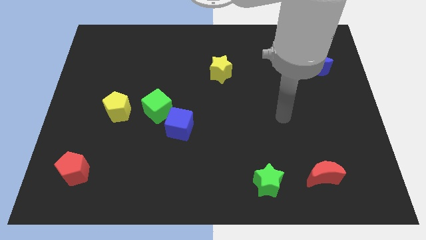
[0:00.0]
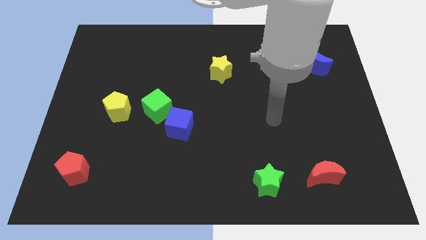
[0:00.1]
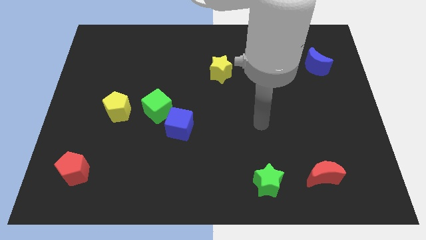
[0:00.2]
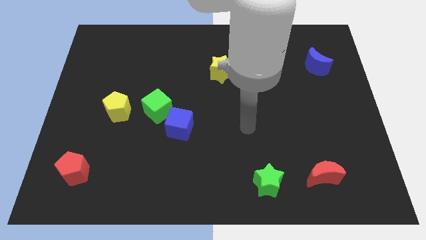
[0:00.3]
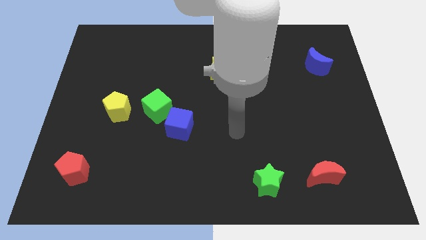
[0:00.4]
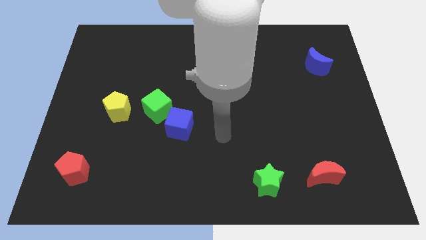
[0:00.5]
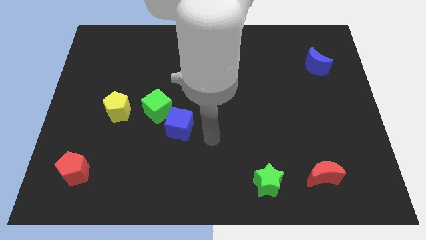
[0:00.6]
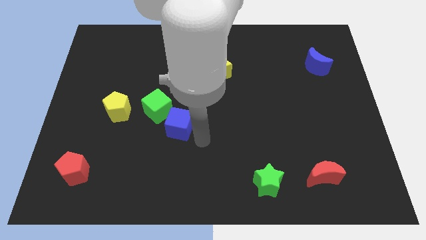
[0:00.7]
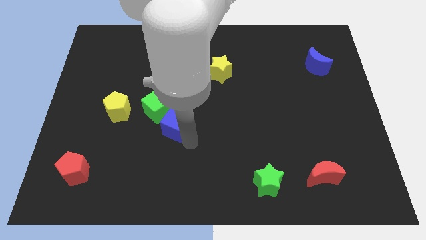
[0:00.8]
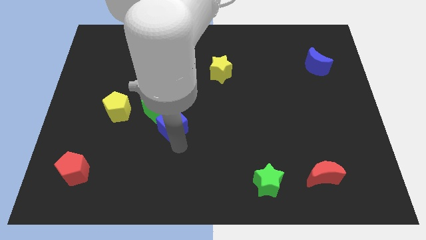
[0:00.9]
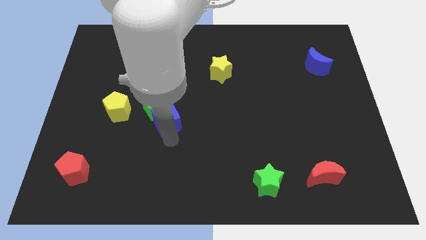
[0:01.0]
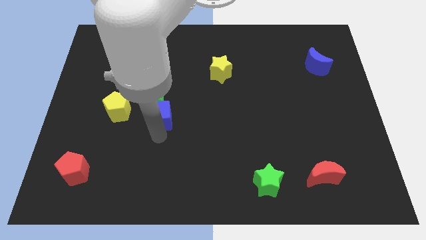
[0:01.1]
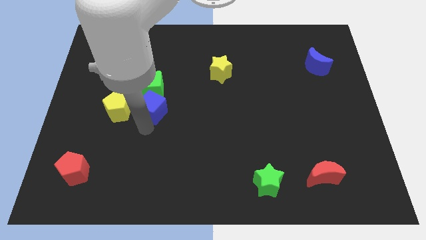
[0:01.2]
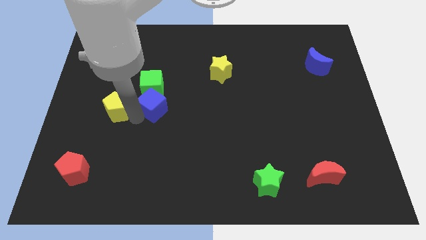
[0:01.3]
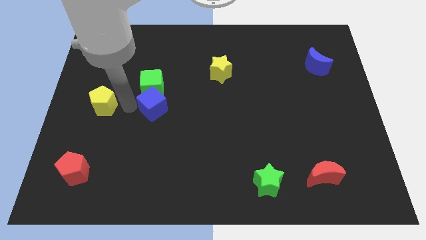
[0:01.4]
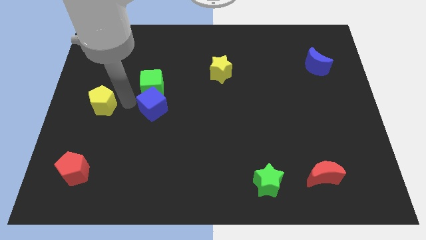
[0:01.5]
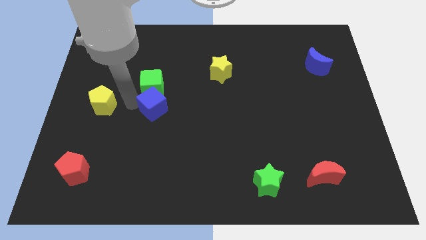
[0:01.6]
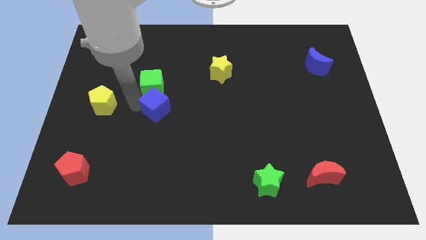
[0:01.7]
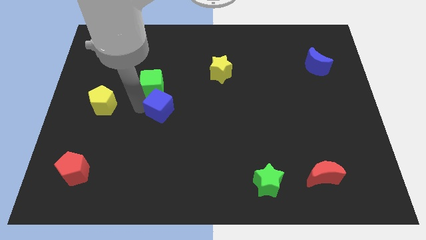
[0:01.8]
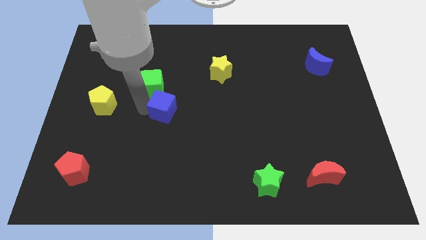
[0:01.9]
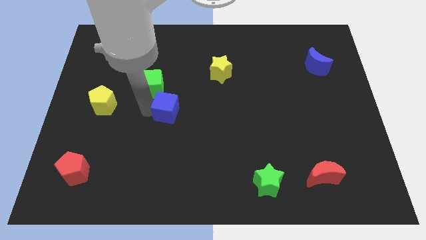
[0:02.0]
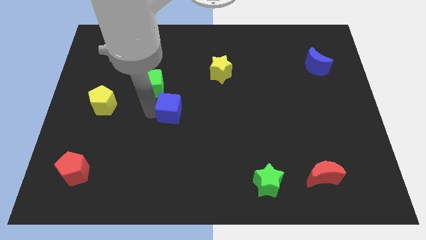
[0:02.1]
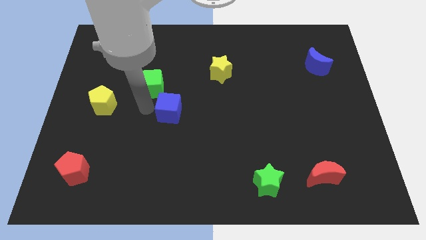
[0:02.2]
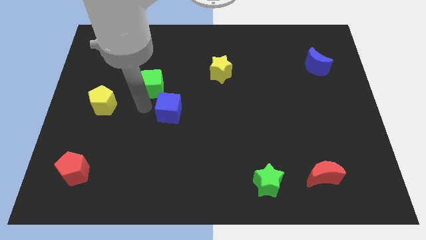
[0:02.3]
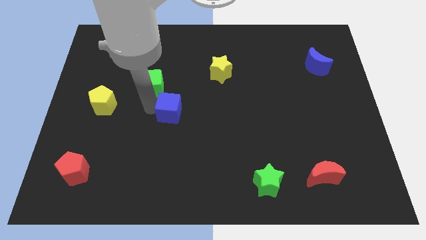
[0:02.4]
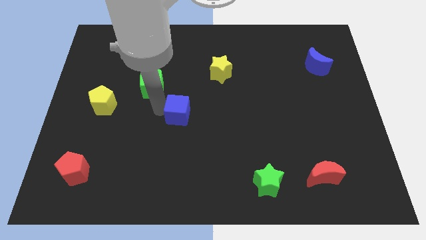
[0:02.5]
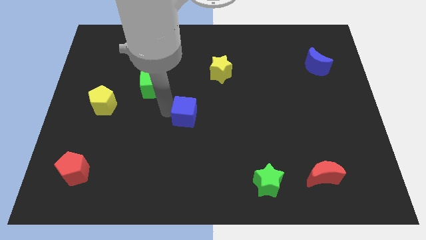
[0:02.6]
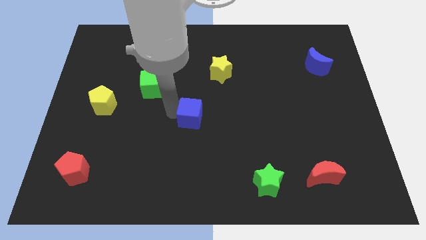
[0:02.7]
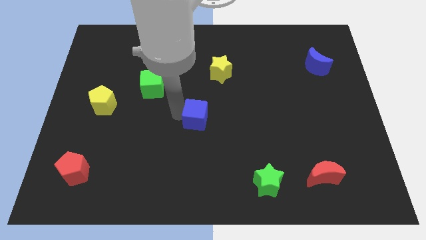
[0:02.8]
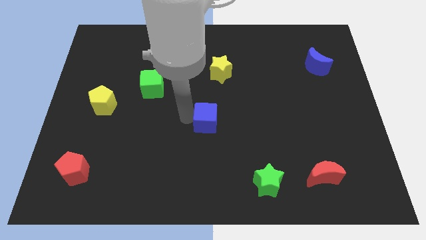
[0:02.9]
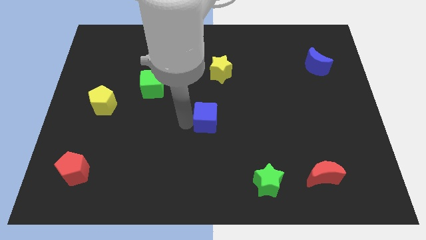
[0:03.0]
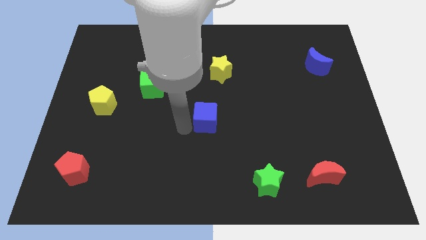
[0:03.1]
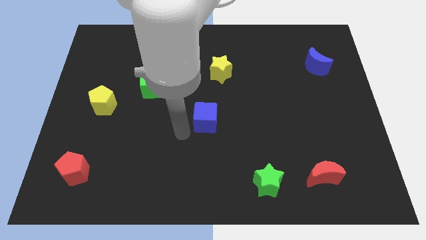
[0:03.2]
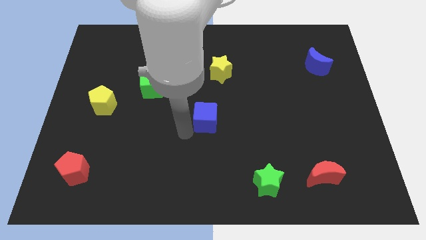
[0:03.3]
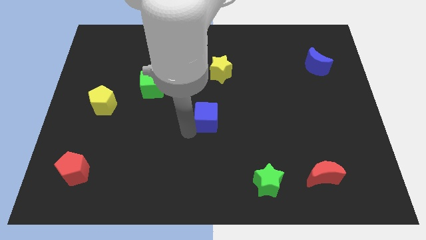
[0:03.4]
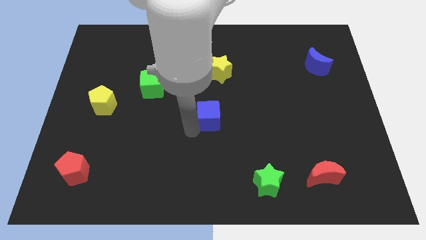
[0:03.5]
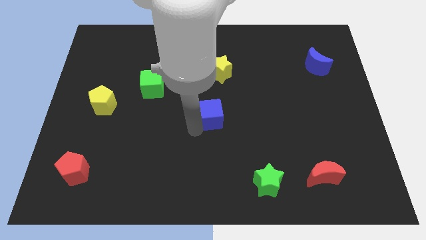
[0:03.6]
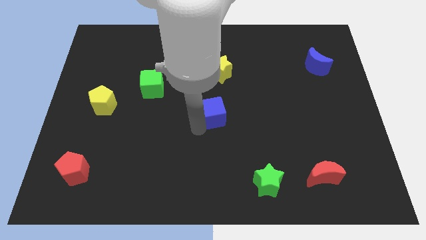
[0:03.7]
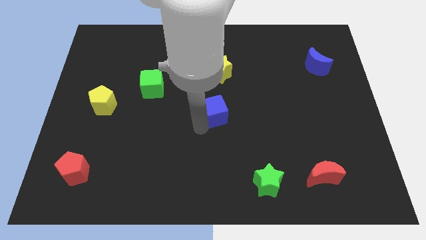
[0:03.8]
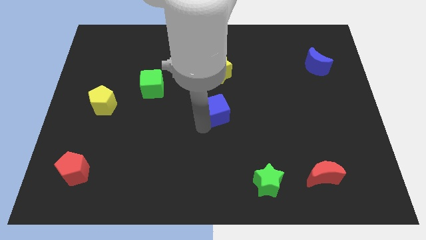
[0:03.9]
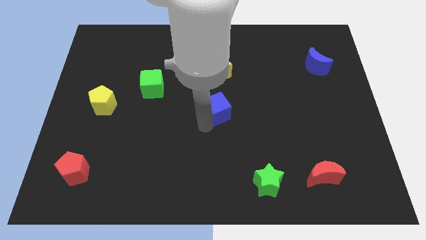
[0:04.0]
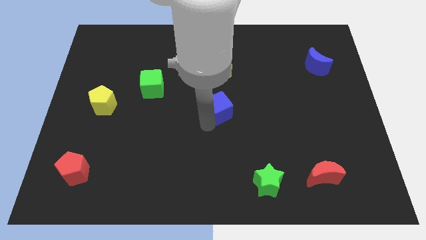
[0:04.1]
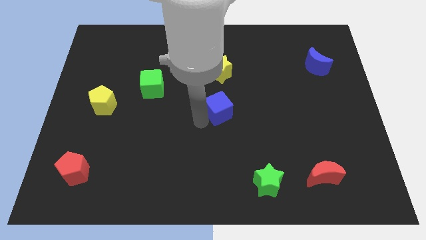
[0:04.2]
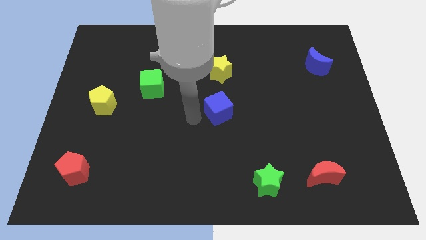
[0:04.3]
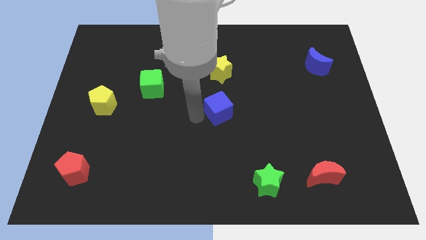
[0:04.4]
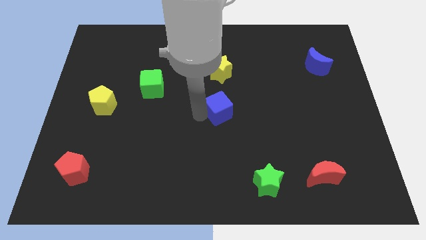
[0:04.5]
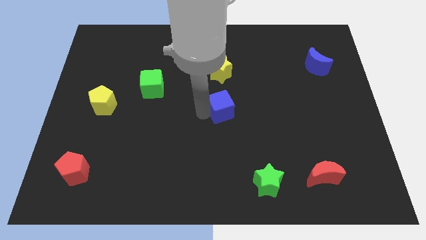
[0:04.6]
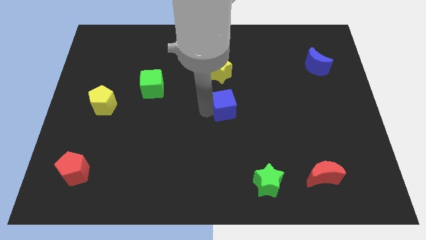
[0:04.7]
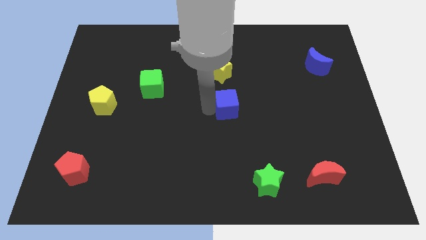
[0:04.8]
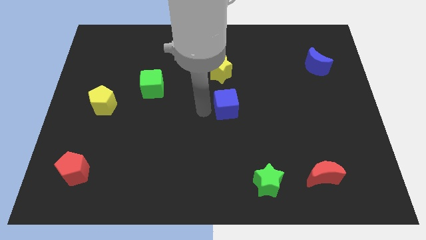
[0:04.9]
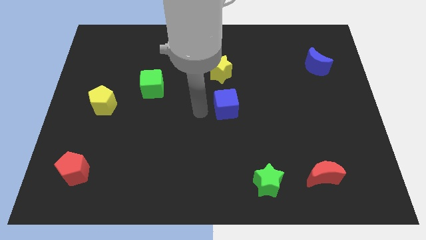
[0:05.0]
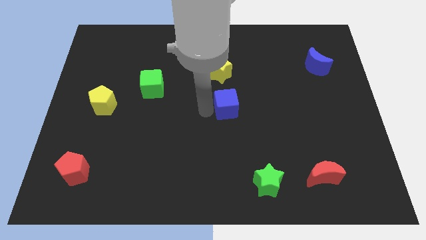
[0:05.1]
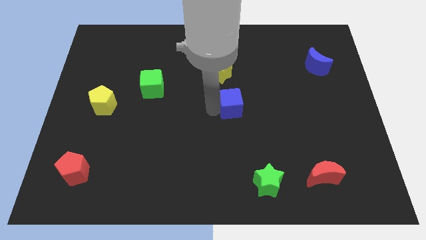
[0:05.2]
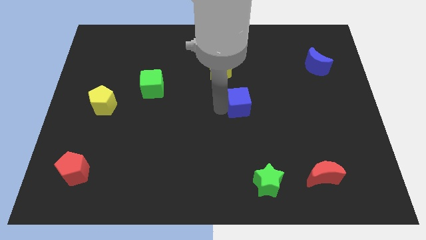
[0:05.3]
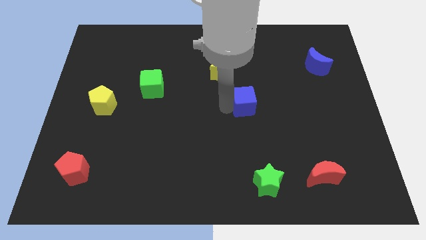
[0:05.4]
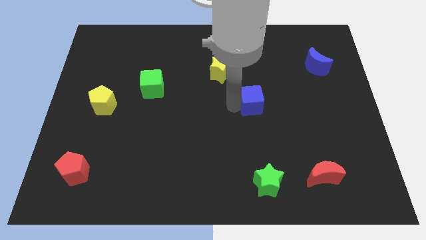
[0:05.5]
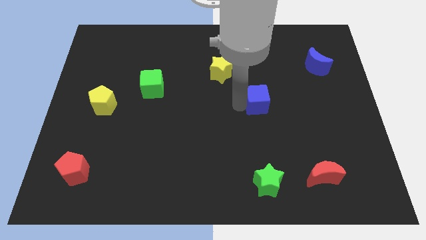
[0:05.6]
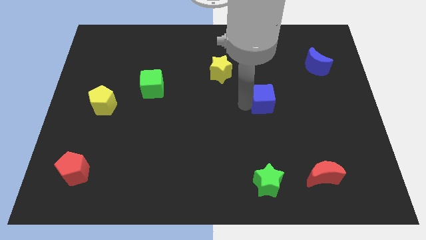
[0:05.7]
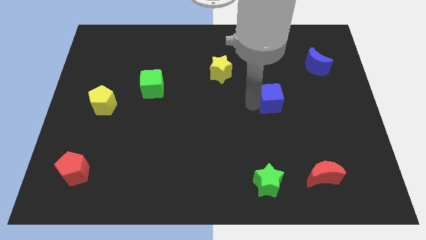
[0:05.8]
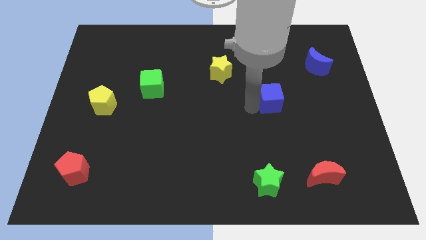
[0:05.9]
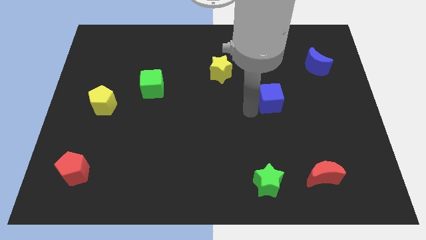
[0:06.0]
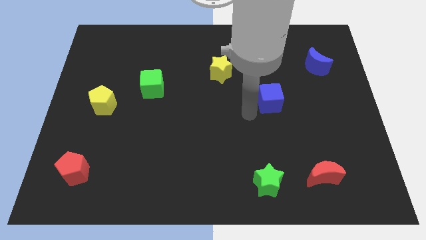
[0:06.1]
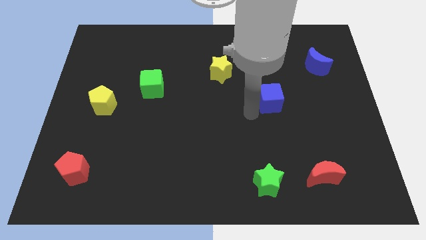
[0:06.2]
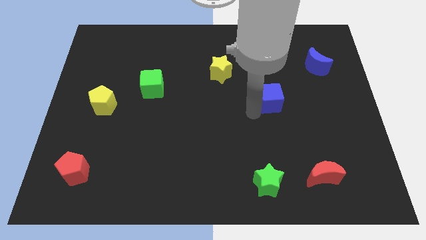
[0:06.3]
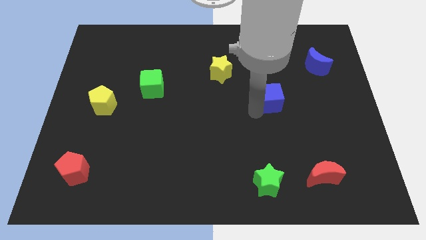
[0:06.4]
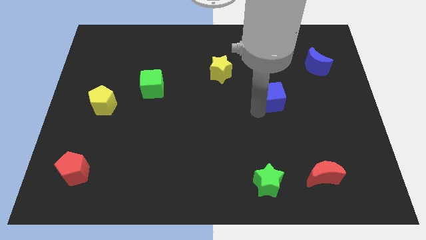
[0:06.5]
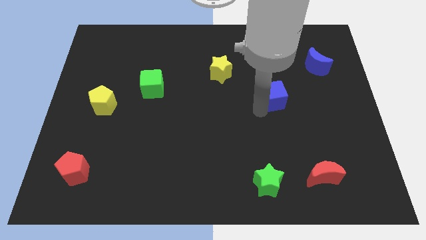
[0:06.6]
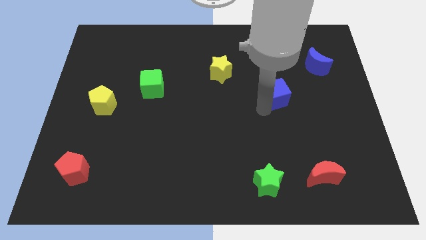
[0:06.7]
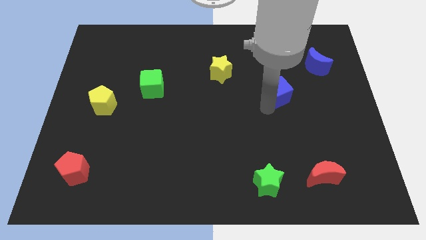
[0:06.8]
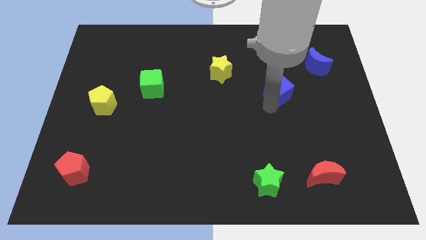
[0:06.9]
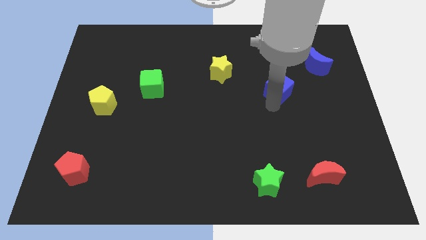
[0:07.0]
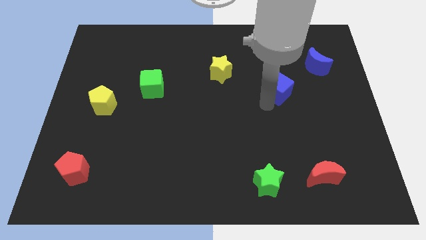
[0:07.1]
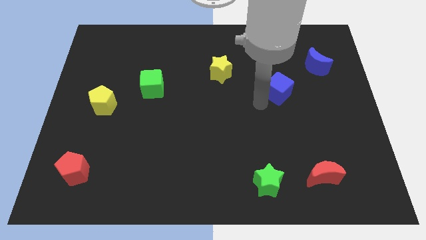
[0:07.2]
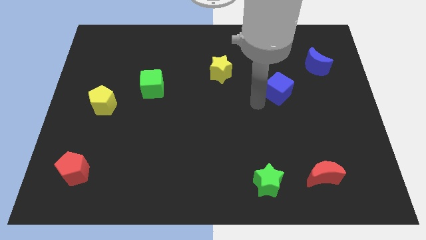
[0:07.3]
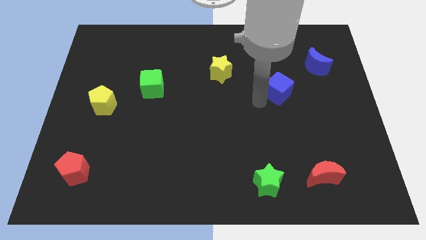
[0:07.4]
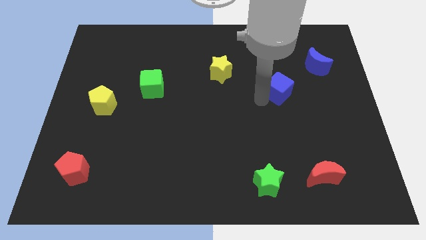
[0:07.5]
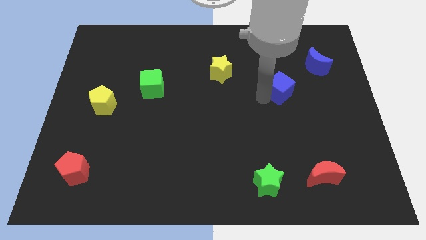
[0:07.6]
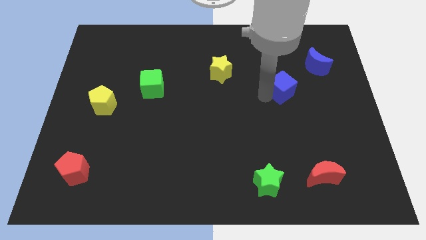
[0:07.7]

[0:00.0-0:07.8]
slide the blue cube to the bottom left side of the blue moon
